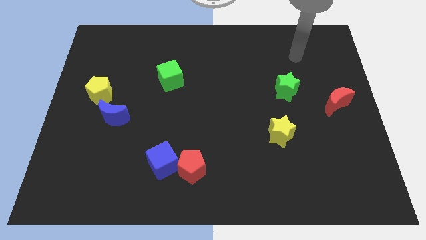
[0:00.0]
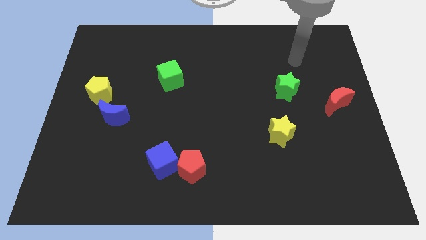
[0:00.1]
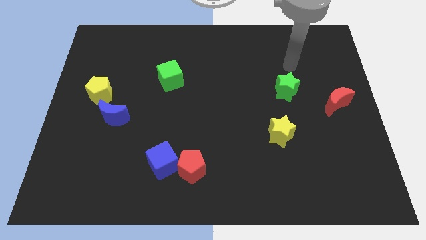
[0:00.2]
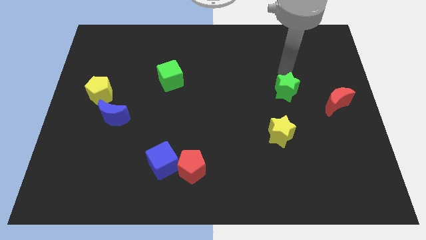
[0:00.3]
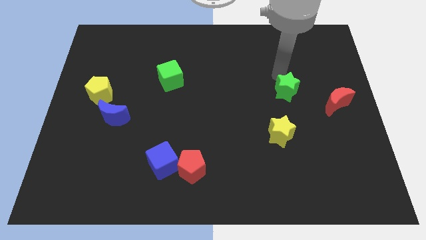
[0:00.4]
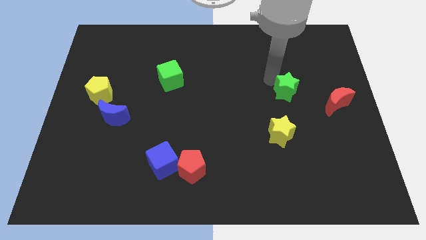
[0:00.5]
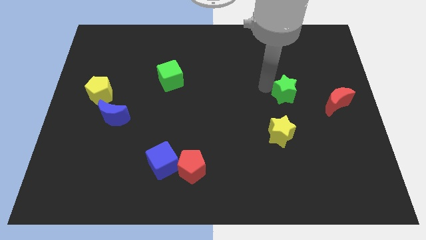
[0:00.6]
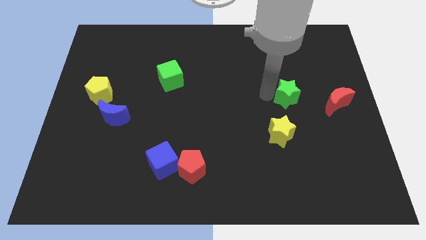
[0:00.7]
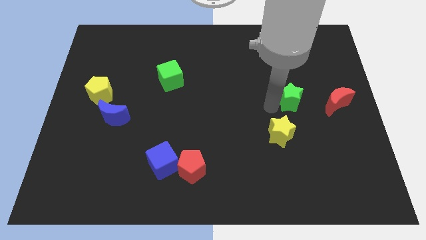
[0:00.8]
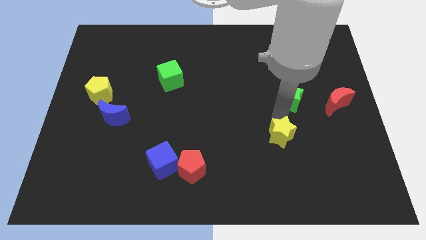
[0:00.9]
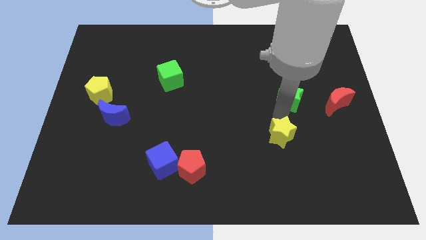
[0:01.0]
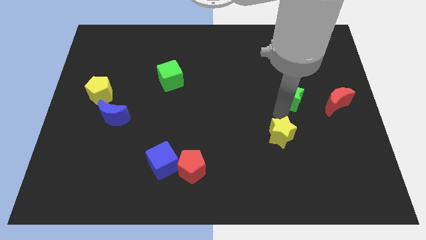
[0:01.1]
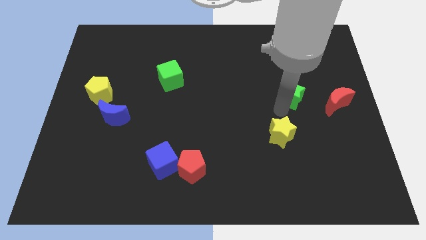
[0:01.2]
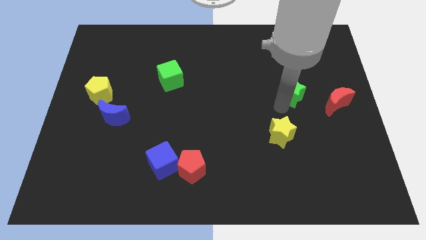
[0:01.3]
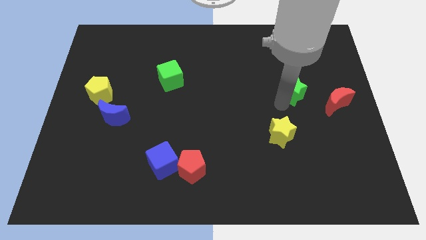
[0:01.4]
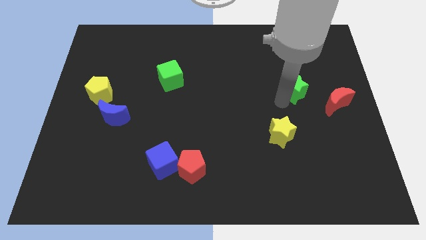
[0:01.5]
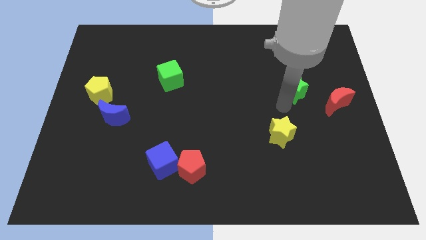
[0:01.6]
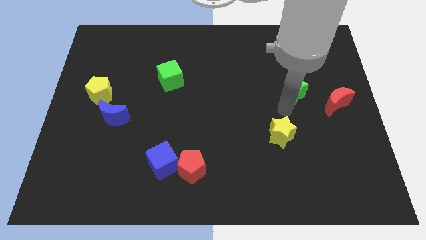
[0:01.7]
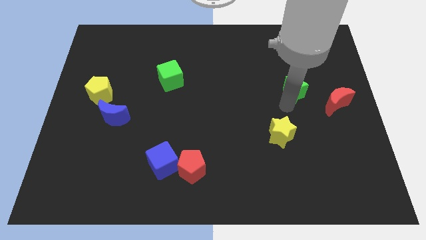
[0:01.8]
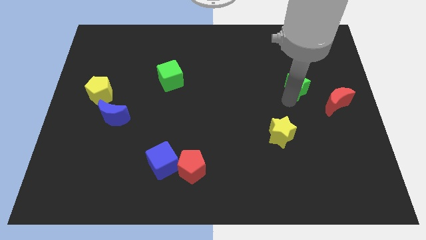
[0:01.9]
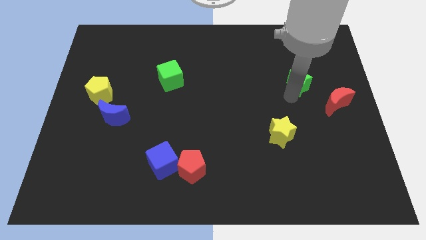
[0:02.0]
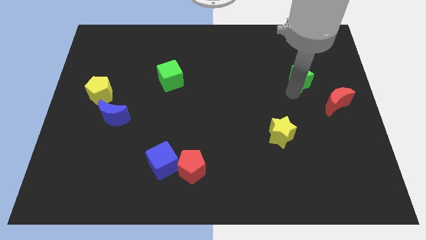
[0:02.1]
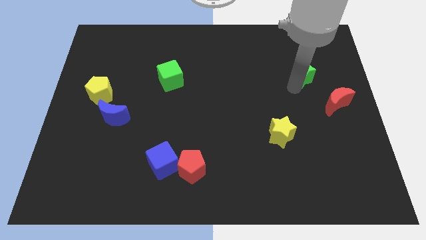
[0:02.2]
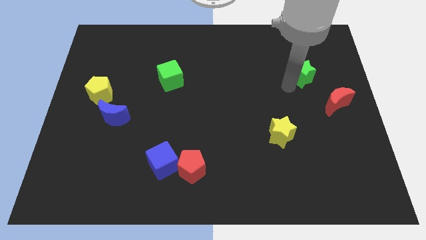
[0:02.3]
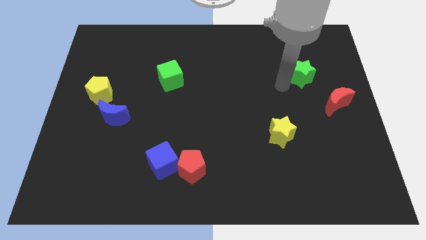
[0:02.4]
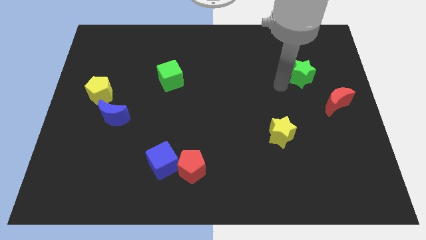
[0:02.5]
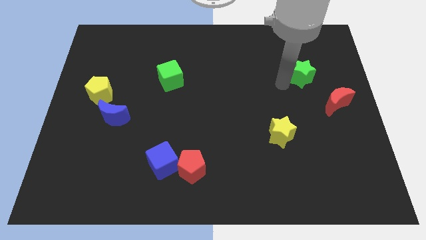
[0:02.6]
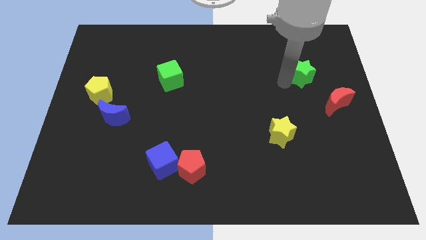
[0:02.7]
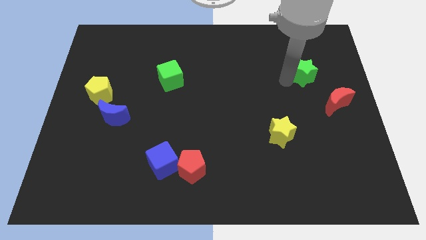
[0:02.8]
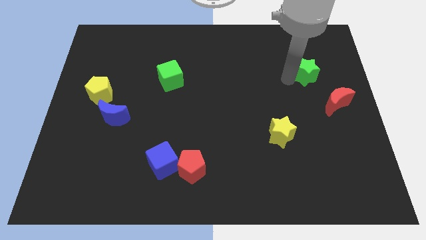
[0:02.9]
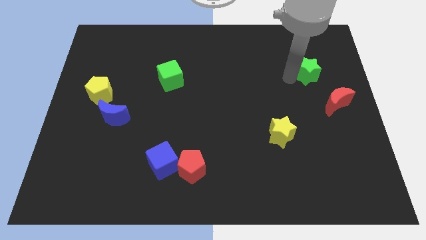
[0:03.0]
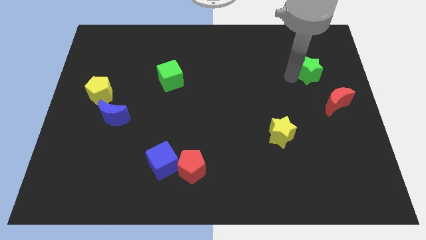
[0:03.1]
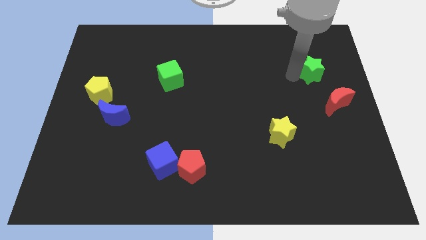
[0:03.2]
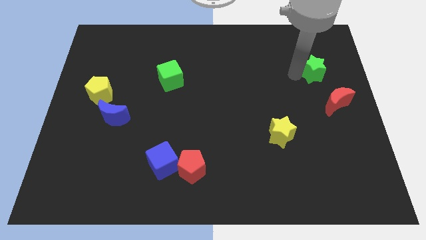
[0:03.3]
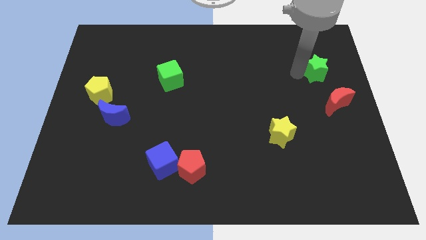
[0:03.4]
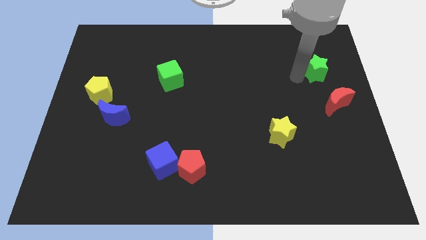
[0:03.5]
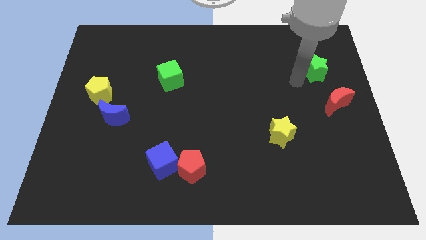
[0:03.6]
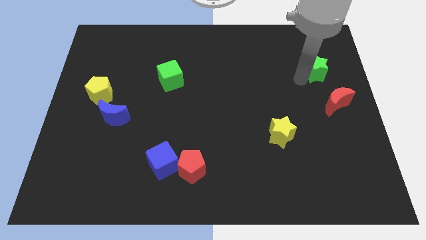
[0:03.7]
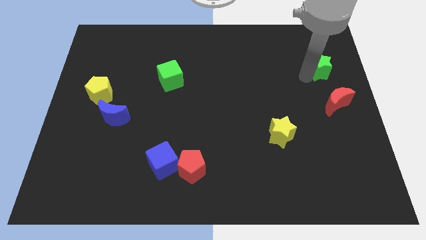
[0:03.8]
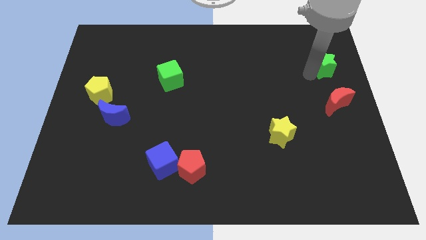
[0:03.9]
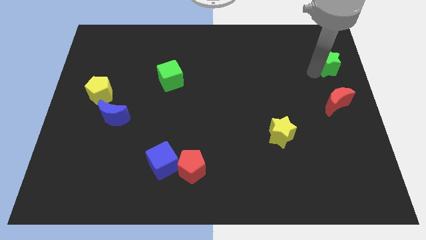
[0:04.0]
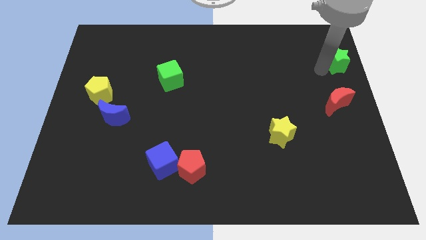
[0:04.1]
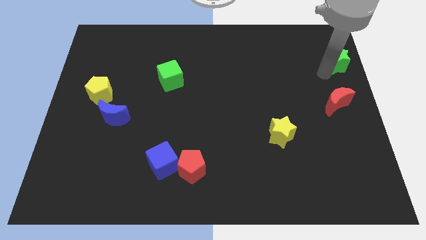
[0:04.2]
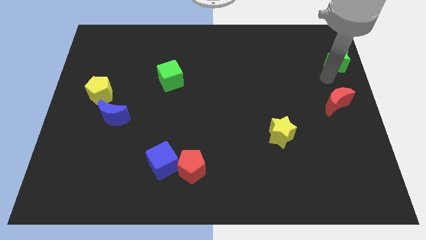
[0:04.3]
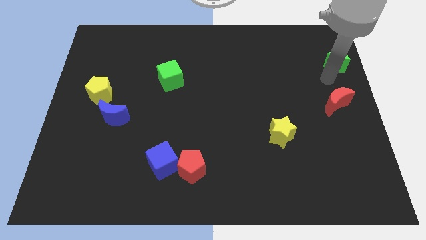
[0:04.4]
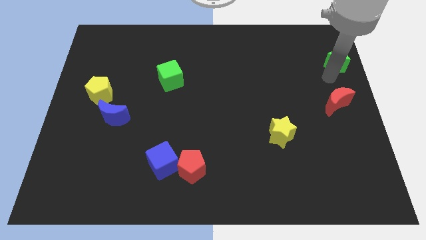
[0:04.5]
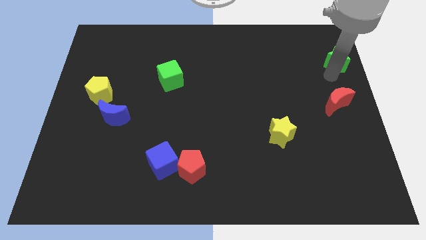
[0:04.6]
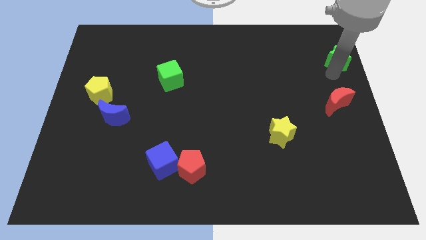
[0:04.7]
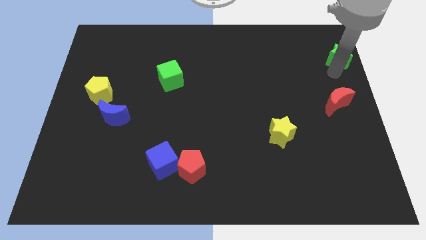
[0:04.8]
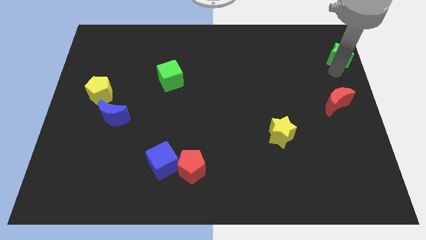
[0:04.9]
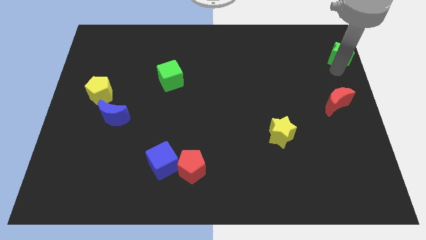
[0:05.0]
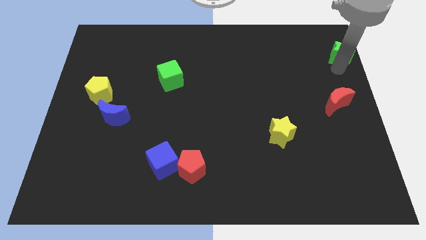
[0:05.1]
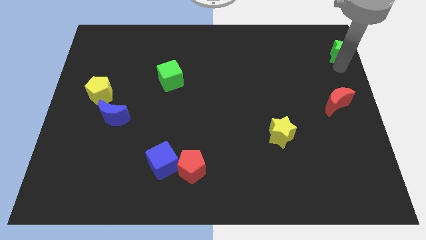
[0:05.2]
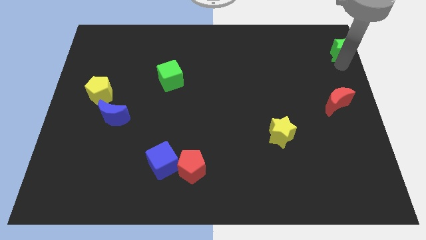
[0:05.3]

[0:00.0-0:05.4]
slide the green star to the top right of the board

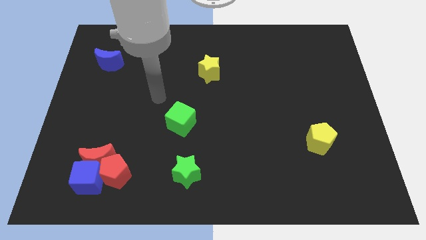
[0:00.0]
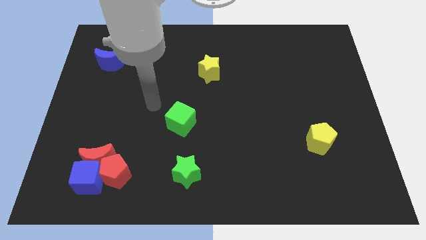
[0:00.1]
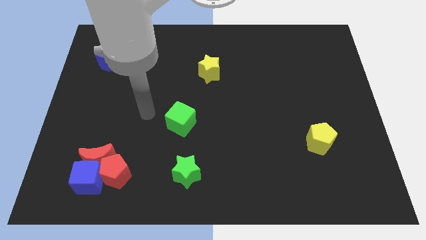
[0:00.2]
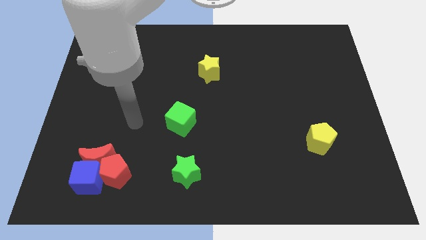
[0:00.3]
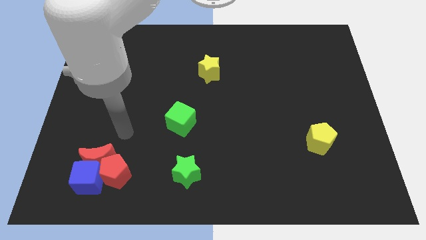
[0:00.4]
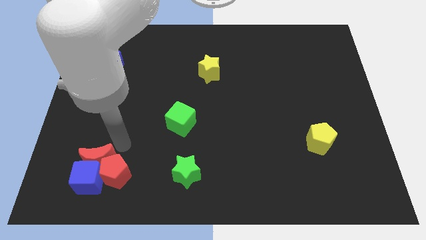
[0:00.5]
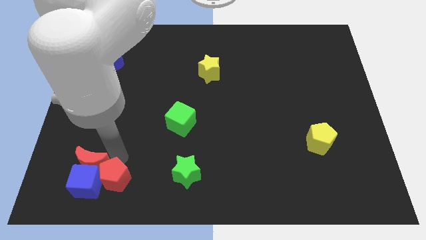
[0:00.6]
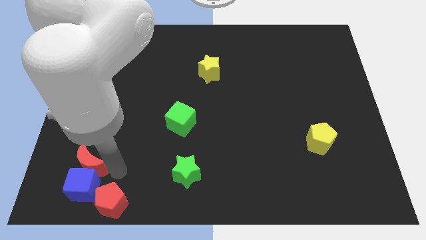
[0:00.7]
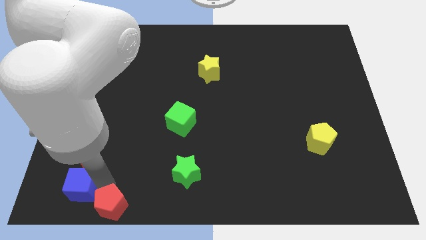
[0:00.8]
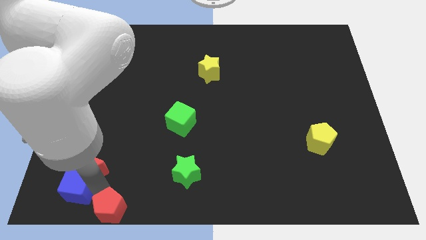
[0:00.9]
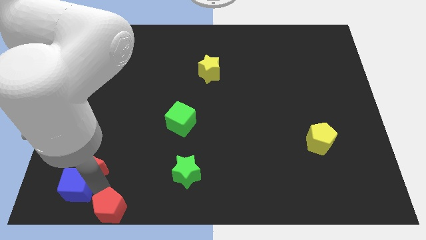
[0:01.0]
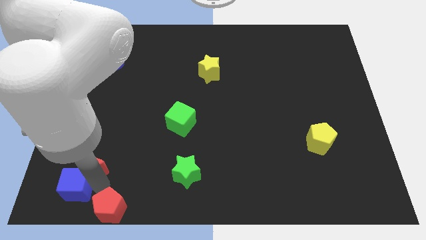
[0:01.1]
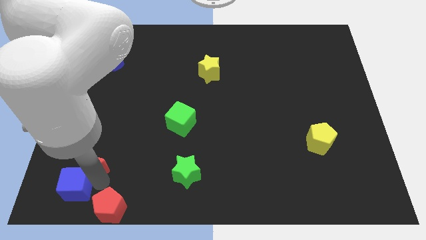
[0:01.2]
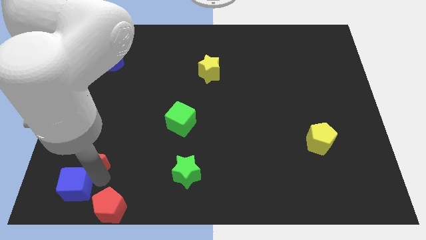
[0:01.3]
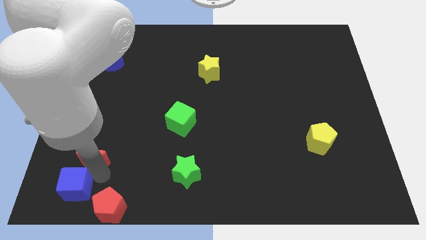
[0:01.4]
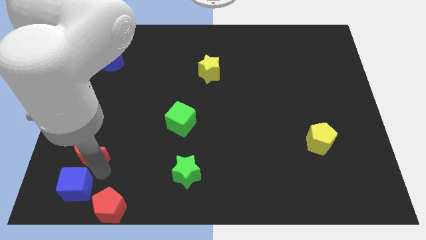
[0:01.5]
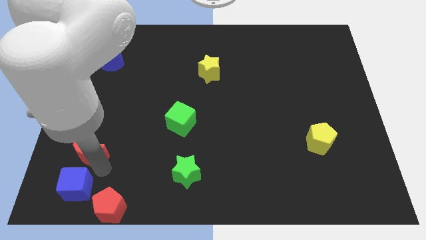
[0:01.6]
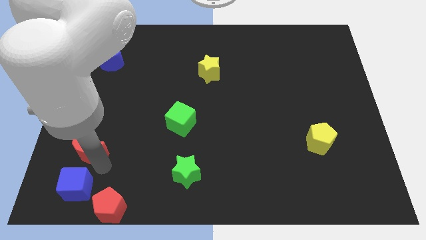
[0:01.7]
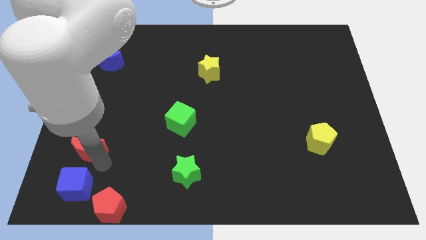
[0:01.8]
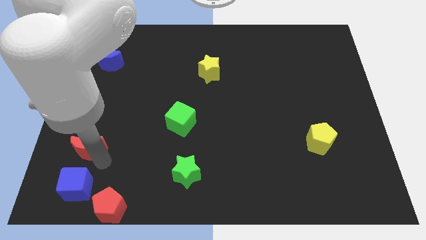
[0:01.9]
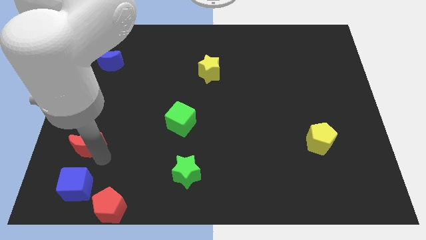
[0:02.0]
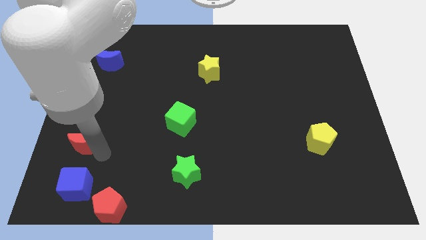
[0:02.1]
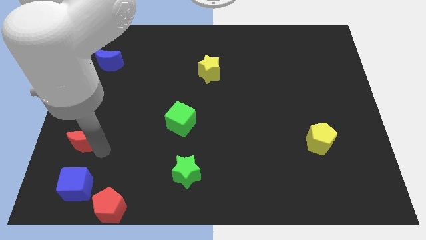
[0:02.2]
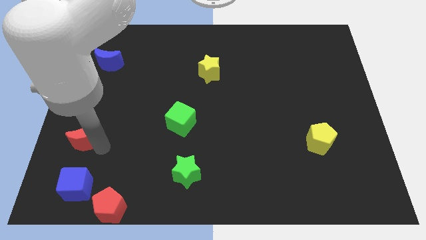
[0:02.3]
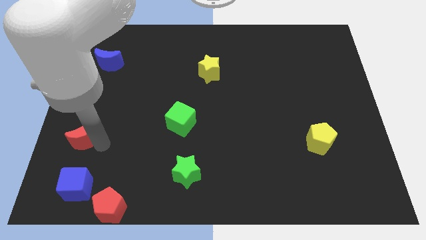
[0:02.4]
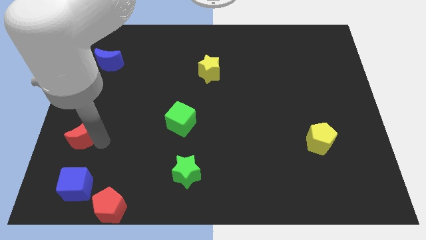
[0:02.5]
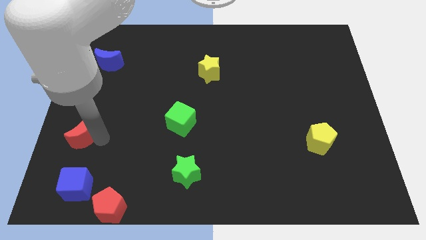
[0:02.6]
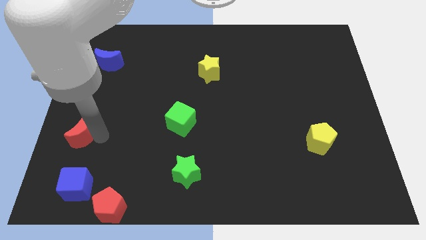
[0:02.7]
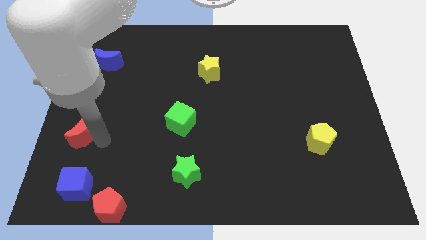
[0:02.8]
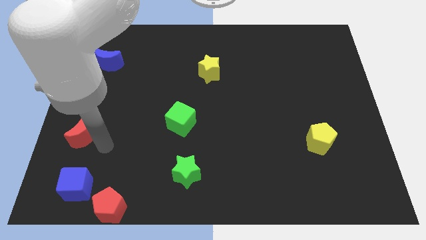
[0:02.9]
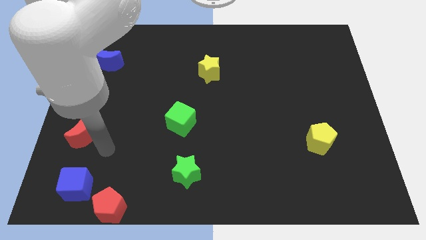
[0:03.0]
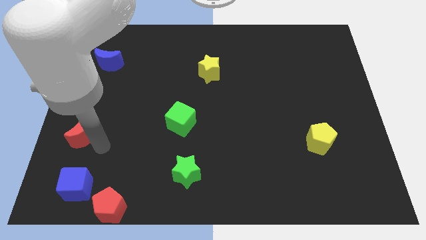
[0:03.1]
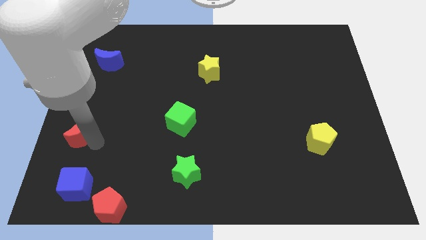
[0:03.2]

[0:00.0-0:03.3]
push the red moon to the left side of the board
